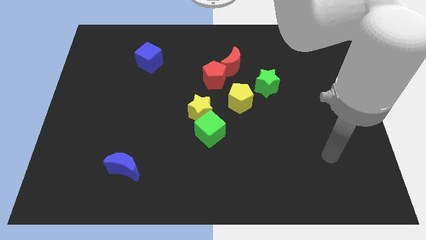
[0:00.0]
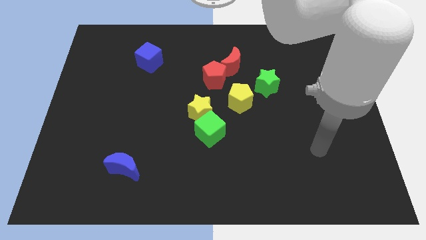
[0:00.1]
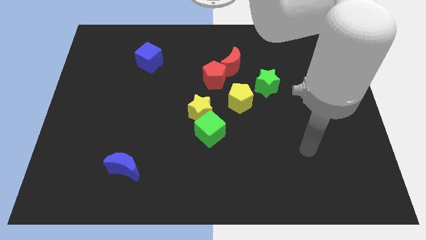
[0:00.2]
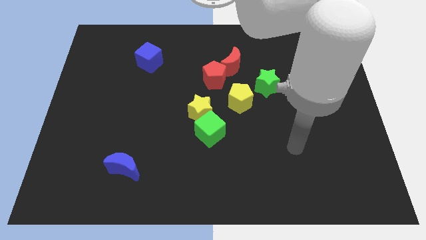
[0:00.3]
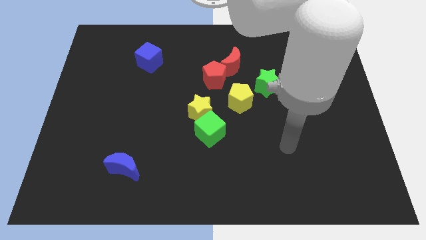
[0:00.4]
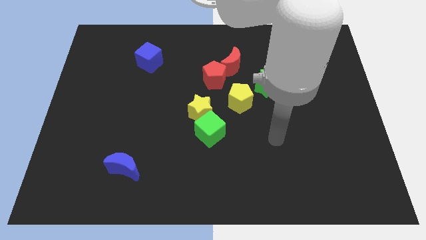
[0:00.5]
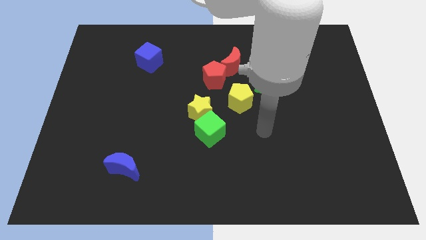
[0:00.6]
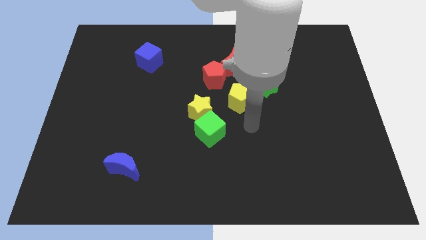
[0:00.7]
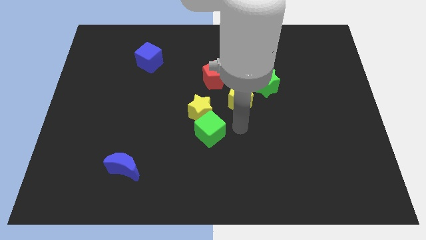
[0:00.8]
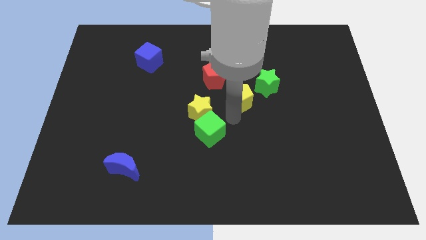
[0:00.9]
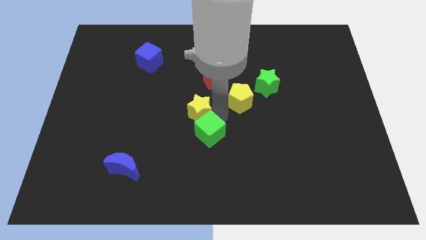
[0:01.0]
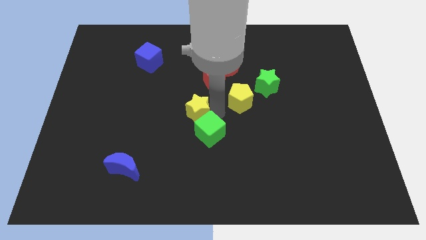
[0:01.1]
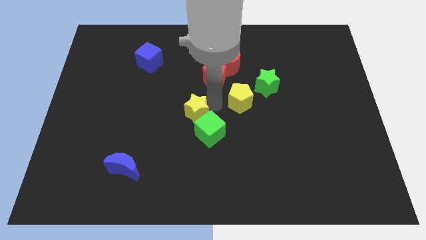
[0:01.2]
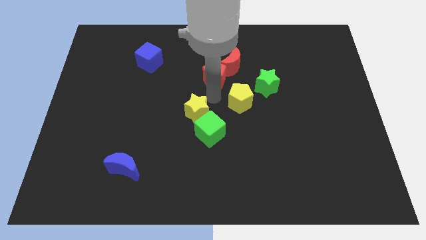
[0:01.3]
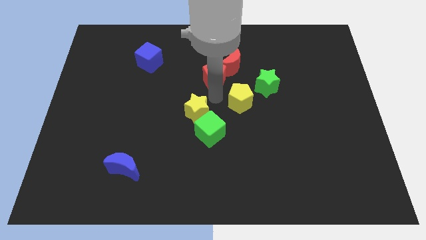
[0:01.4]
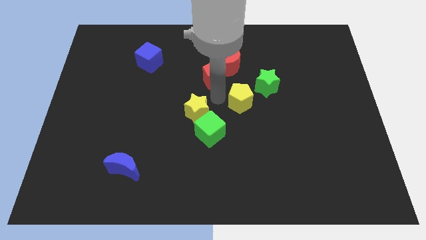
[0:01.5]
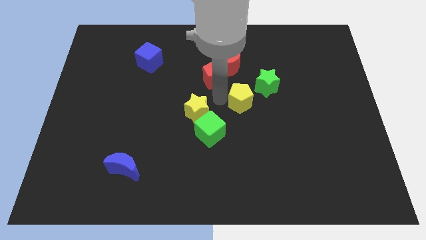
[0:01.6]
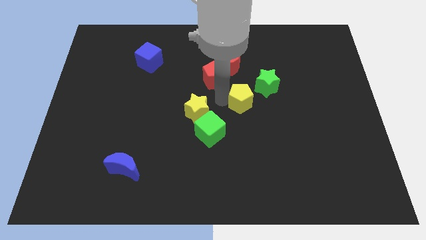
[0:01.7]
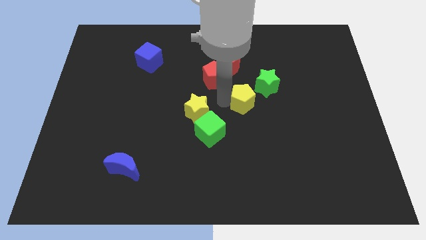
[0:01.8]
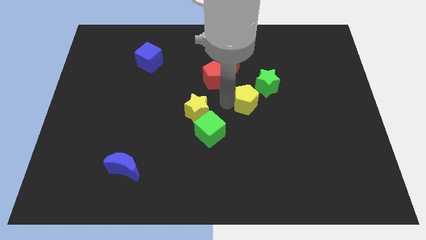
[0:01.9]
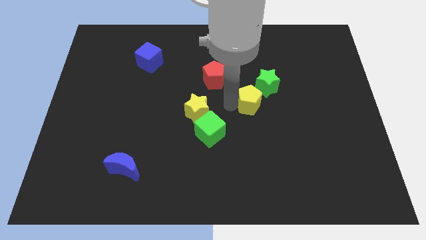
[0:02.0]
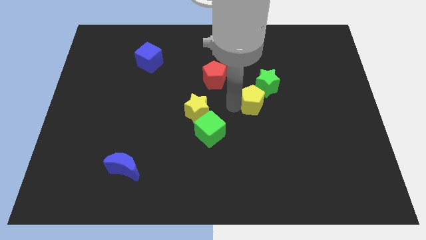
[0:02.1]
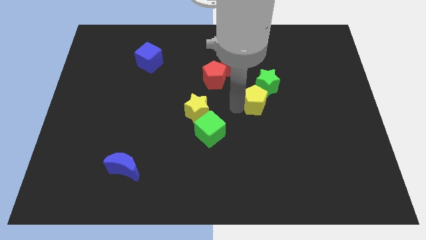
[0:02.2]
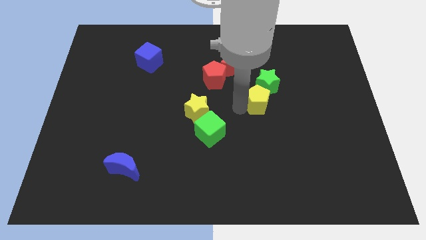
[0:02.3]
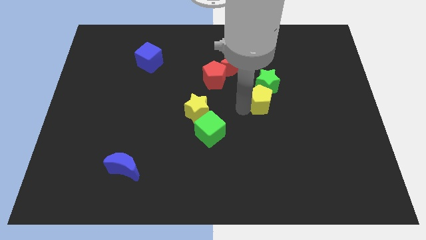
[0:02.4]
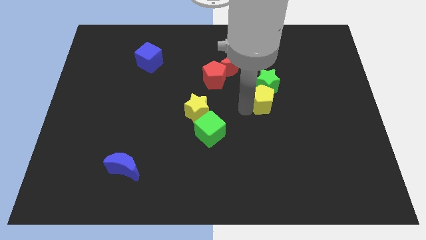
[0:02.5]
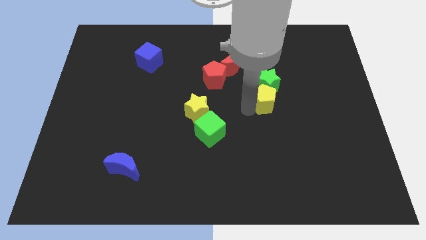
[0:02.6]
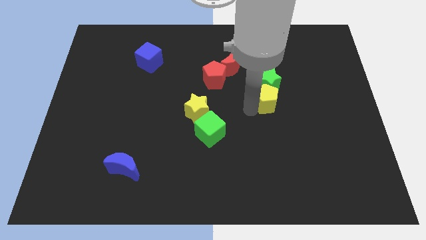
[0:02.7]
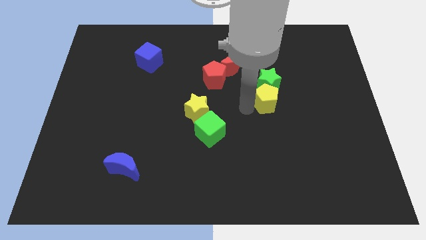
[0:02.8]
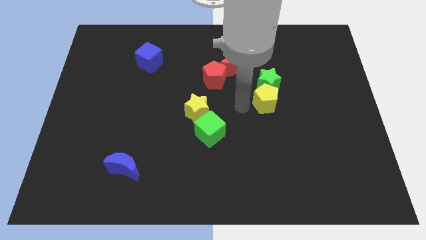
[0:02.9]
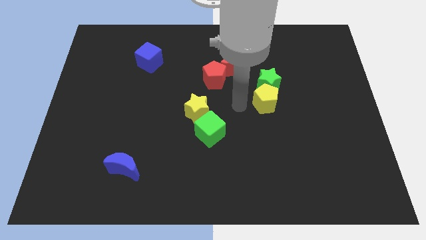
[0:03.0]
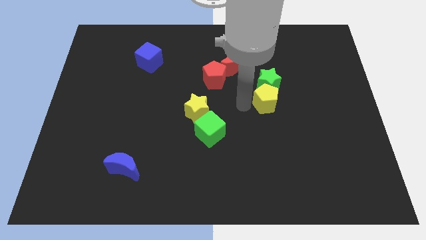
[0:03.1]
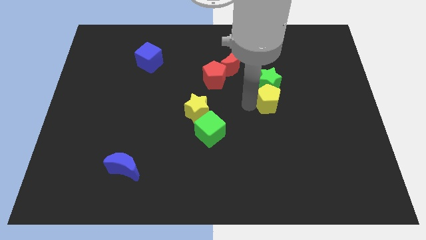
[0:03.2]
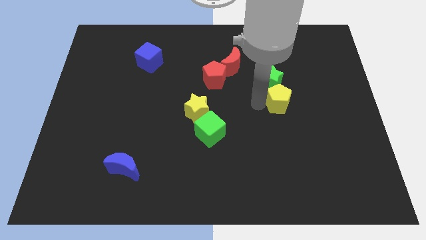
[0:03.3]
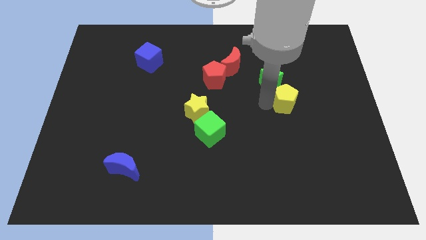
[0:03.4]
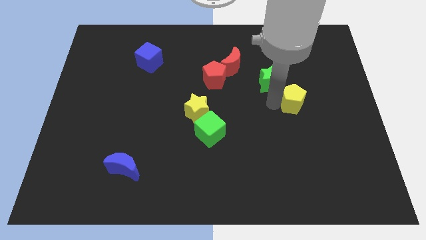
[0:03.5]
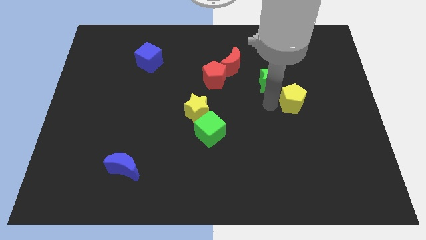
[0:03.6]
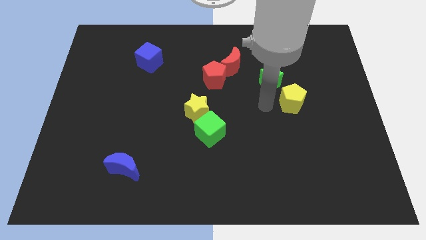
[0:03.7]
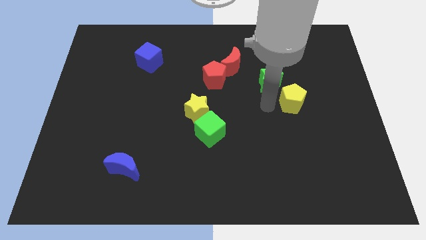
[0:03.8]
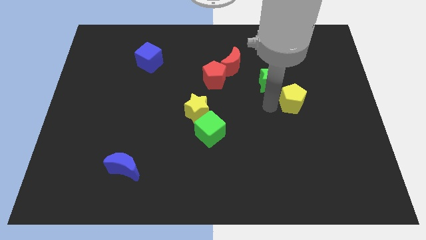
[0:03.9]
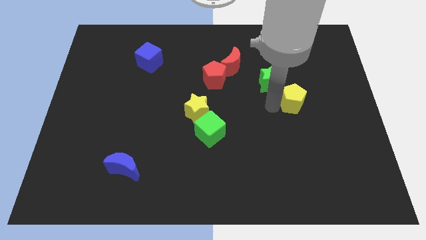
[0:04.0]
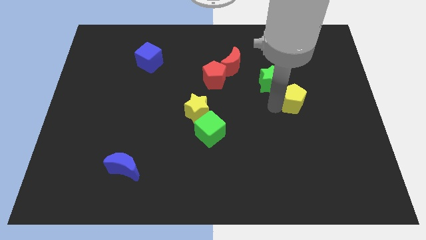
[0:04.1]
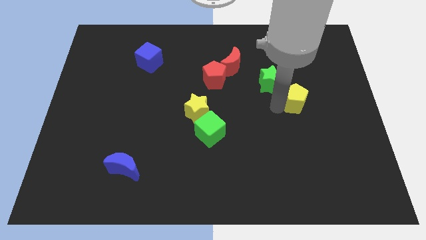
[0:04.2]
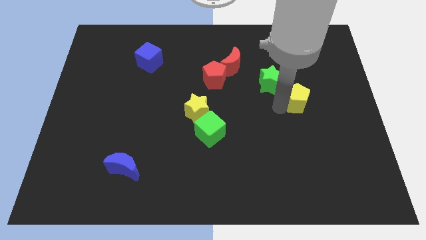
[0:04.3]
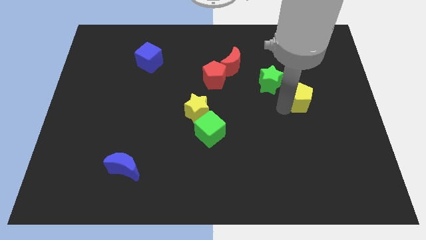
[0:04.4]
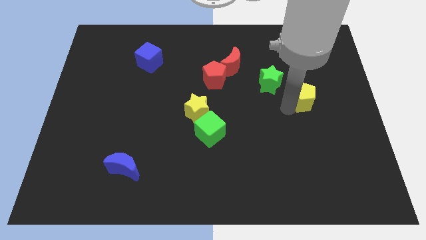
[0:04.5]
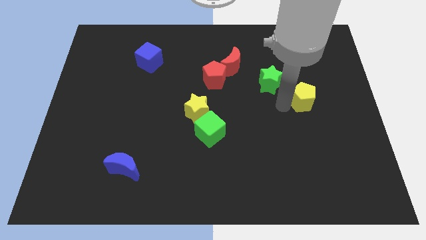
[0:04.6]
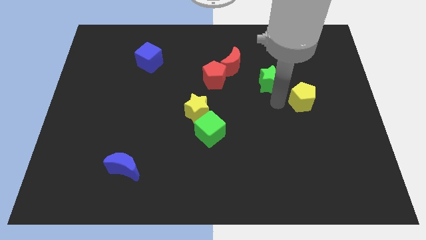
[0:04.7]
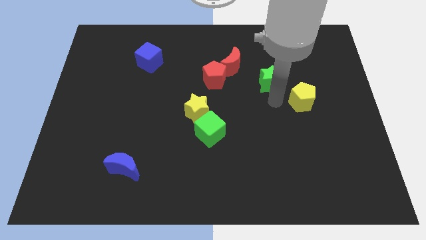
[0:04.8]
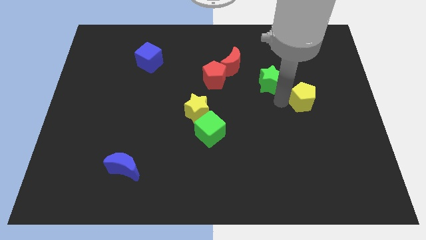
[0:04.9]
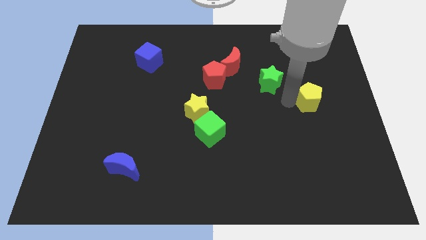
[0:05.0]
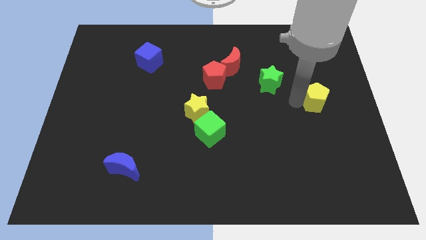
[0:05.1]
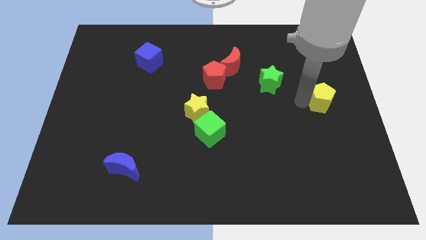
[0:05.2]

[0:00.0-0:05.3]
push the yellow pentagon to the right side

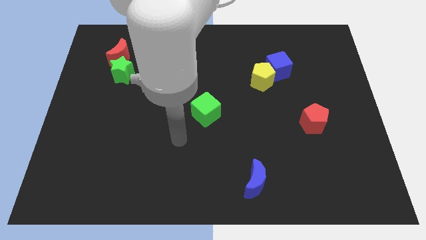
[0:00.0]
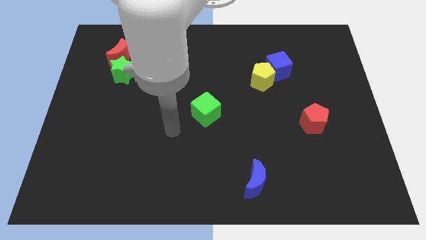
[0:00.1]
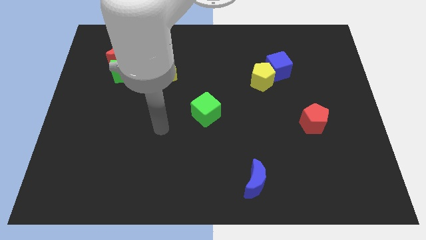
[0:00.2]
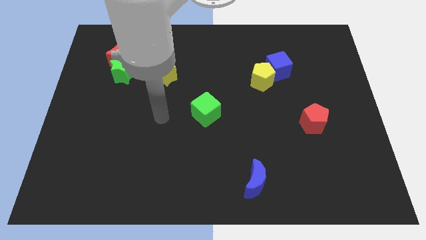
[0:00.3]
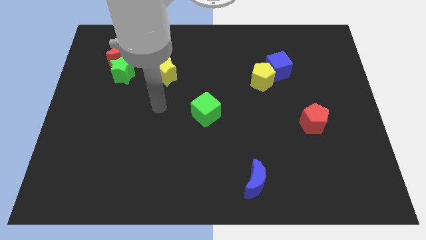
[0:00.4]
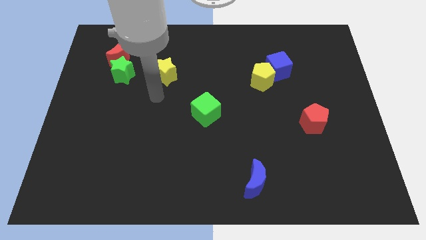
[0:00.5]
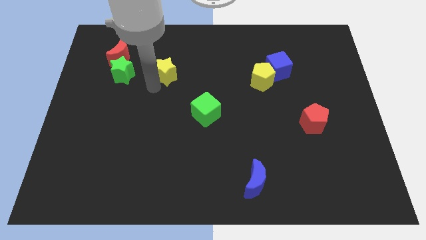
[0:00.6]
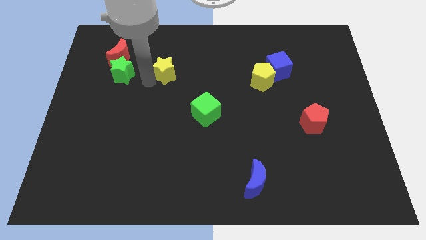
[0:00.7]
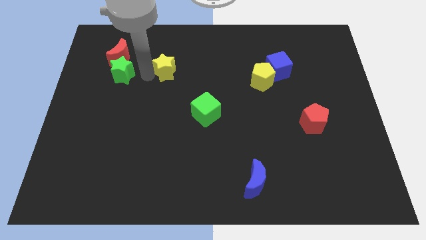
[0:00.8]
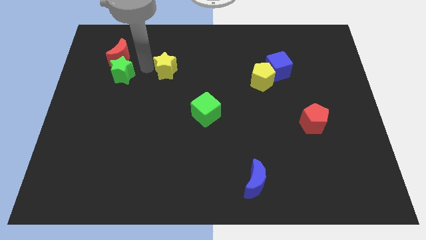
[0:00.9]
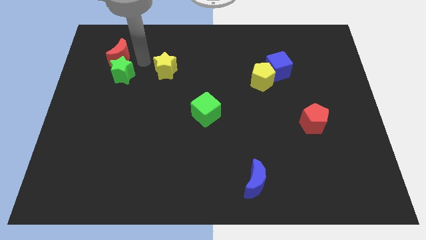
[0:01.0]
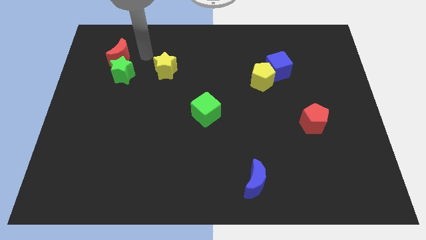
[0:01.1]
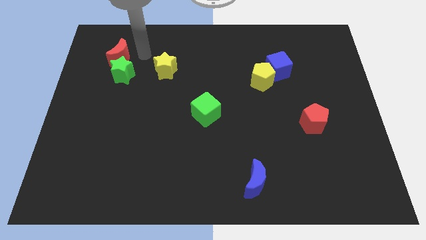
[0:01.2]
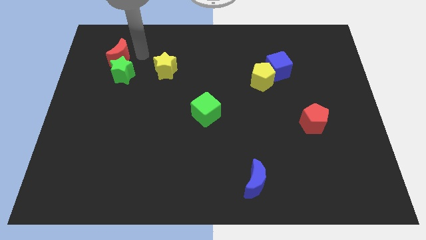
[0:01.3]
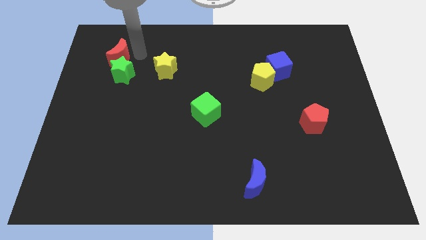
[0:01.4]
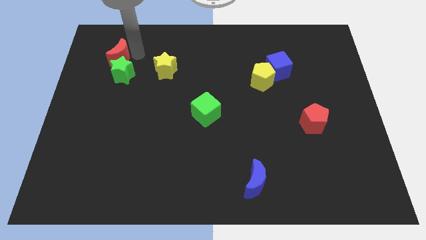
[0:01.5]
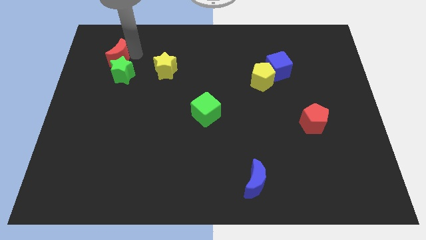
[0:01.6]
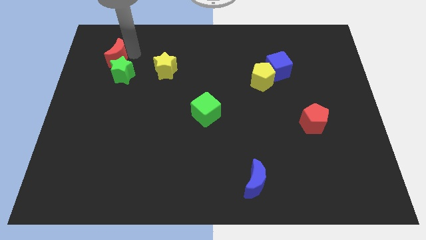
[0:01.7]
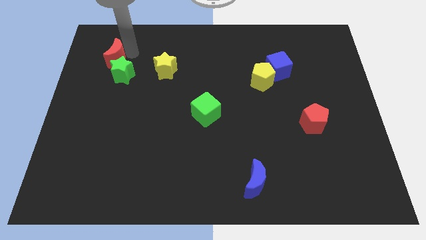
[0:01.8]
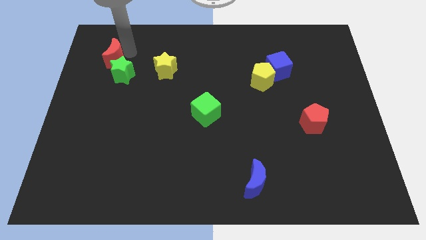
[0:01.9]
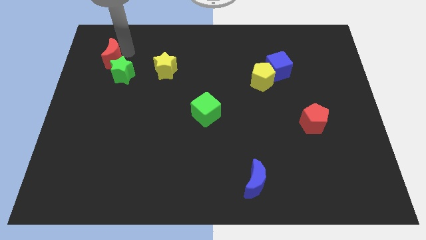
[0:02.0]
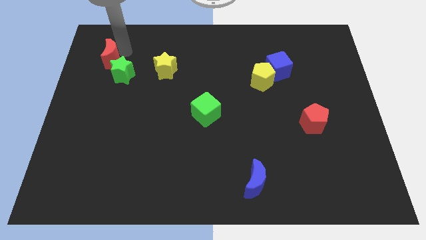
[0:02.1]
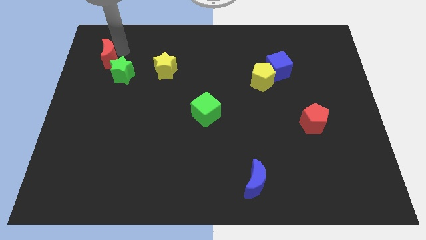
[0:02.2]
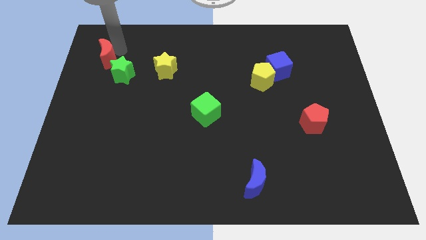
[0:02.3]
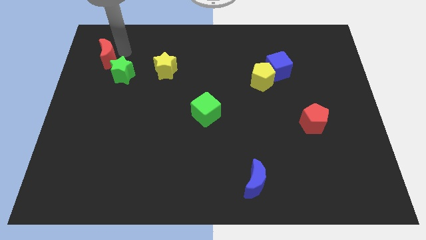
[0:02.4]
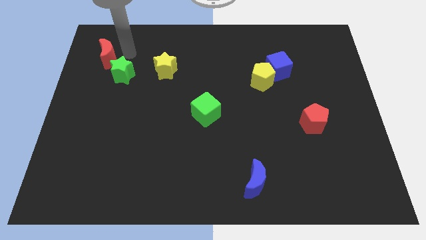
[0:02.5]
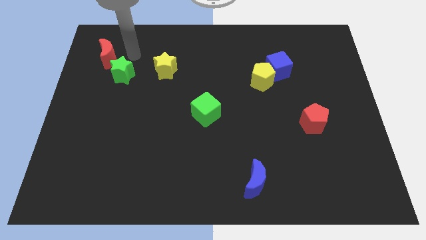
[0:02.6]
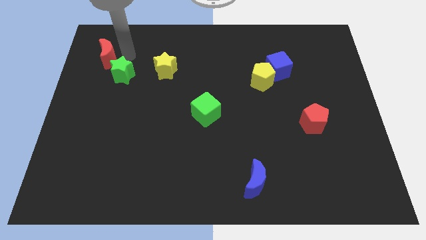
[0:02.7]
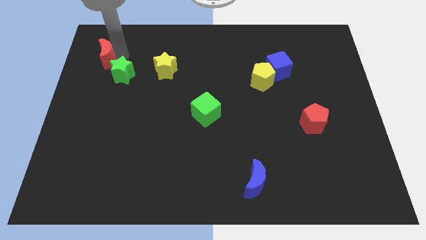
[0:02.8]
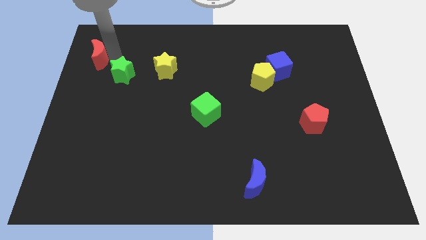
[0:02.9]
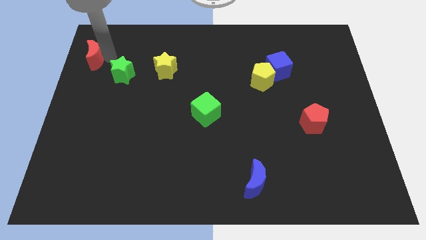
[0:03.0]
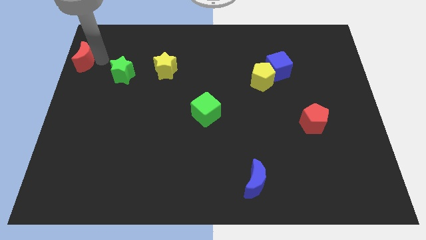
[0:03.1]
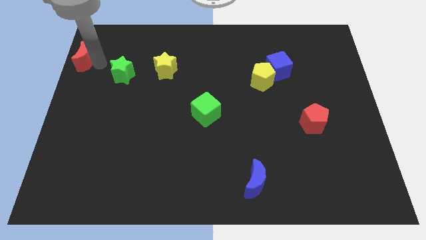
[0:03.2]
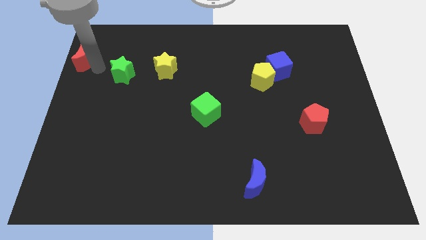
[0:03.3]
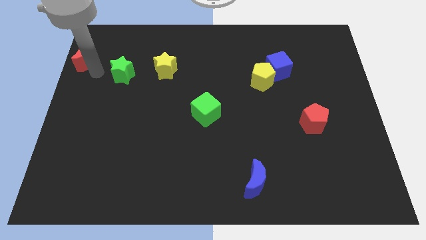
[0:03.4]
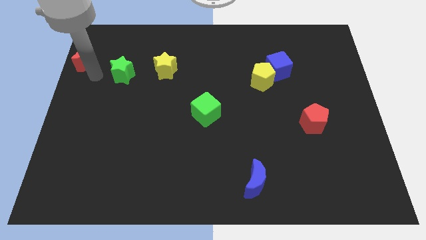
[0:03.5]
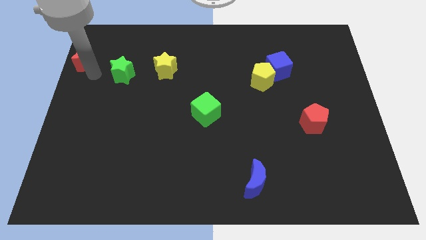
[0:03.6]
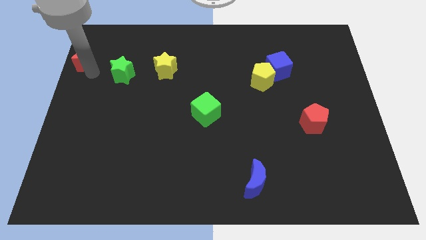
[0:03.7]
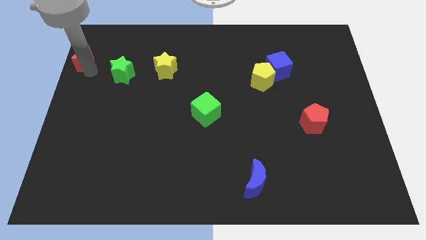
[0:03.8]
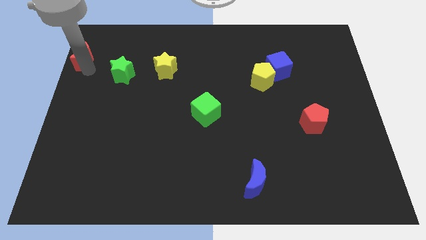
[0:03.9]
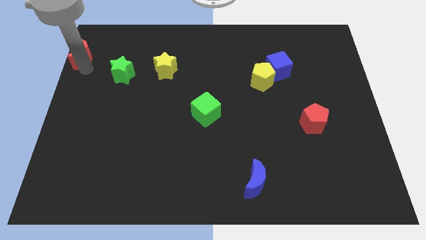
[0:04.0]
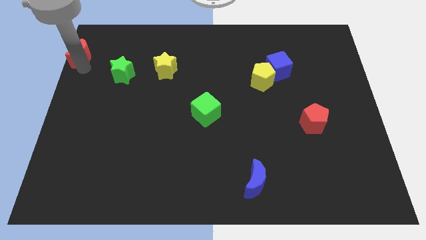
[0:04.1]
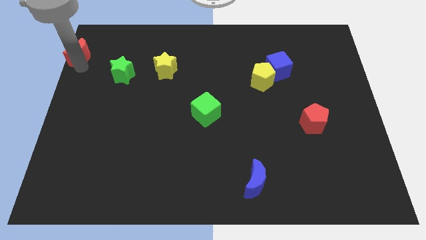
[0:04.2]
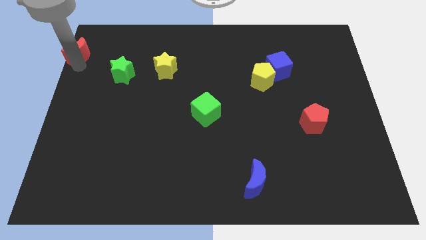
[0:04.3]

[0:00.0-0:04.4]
slide the red moon to the upper left corner
